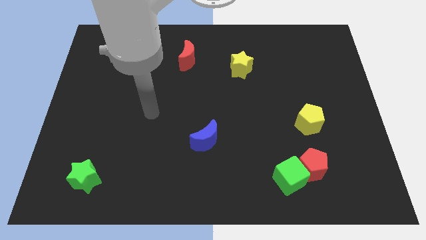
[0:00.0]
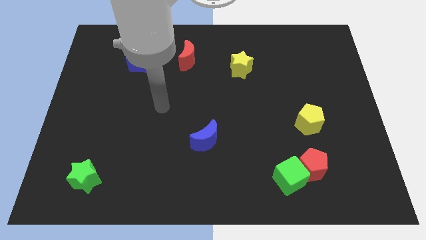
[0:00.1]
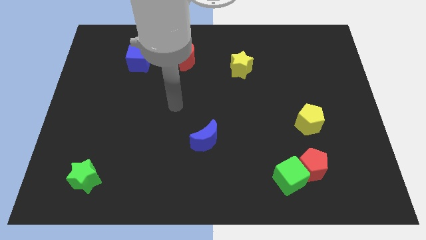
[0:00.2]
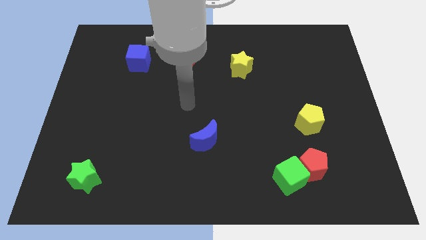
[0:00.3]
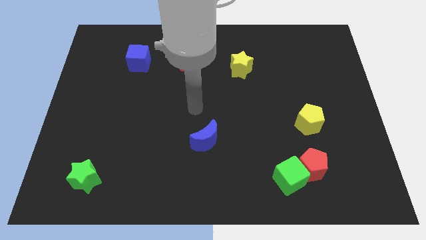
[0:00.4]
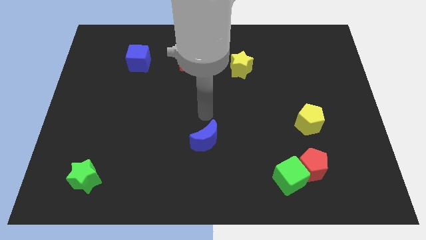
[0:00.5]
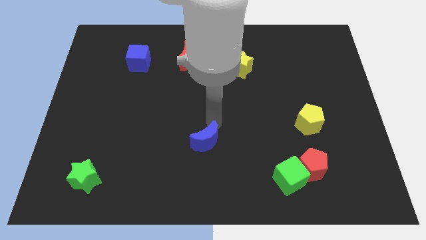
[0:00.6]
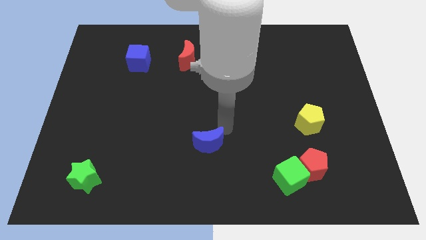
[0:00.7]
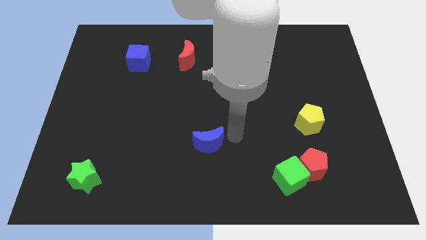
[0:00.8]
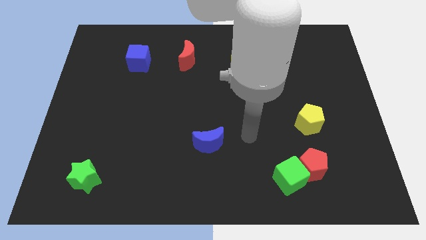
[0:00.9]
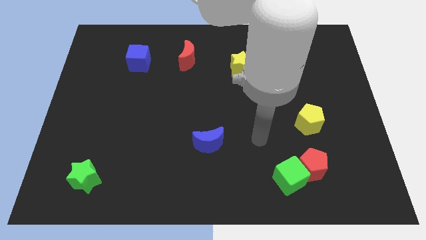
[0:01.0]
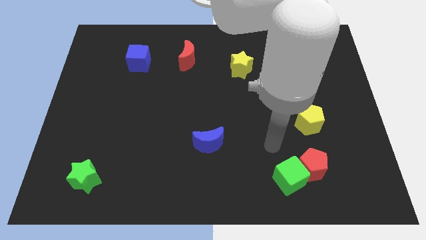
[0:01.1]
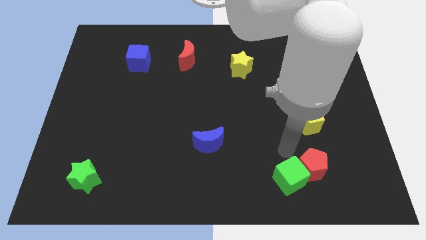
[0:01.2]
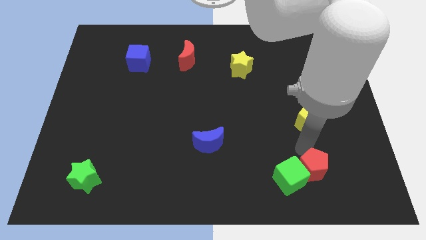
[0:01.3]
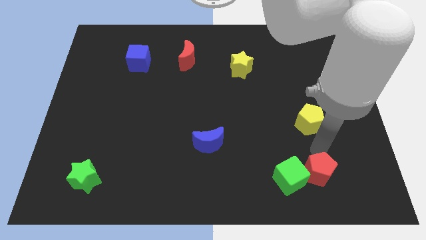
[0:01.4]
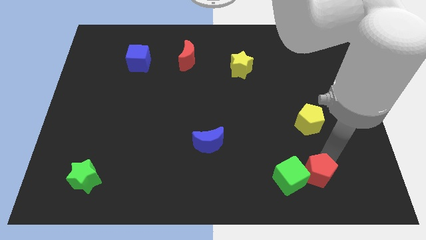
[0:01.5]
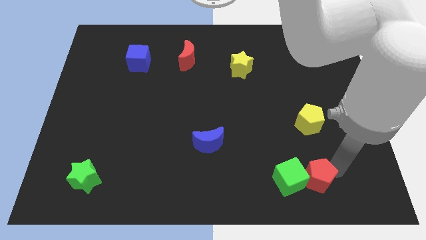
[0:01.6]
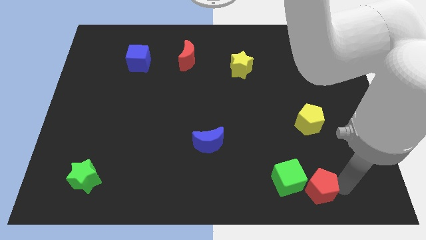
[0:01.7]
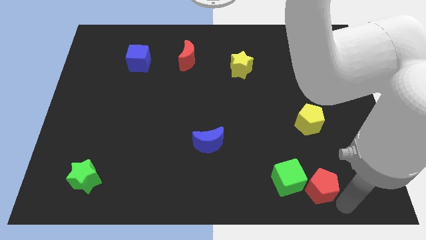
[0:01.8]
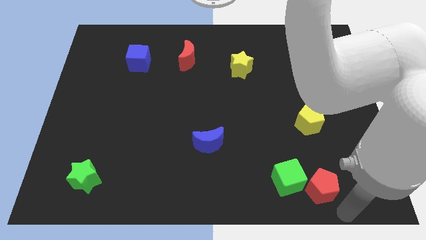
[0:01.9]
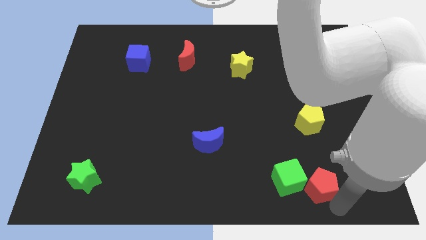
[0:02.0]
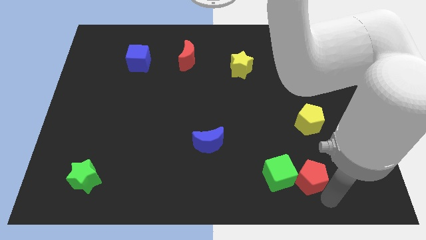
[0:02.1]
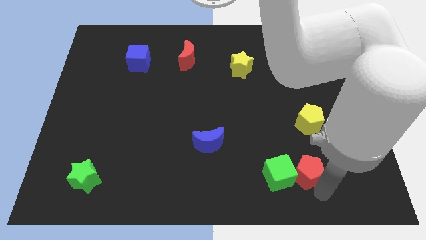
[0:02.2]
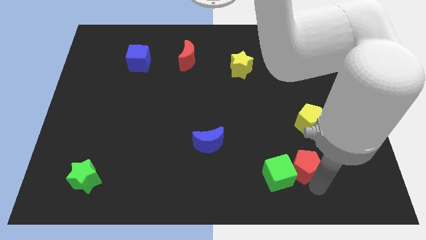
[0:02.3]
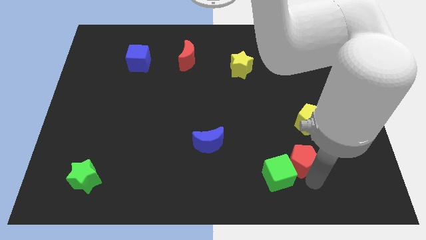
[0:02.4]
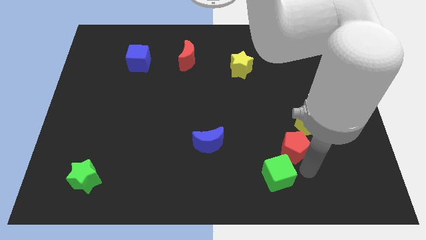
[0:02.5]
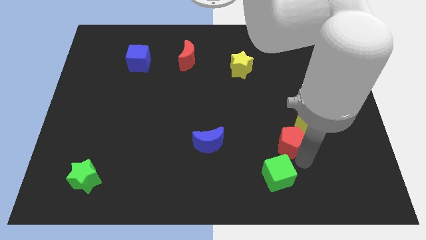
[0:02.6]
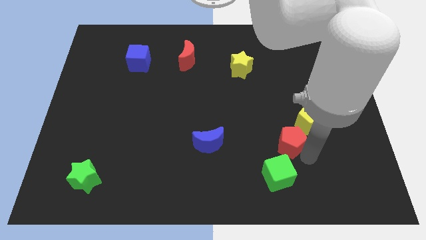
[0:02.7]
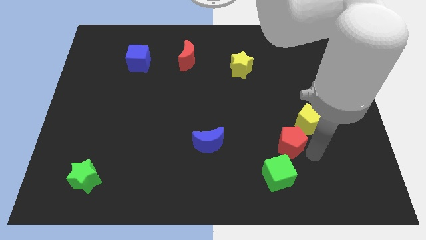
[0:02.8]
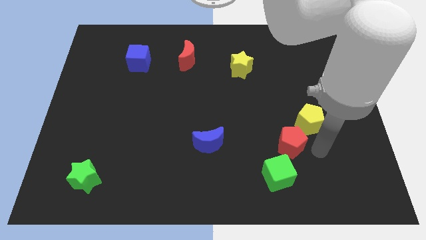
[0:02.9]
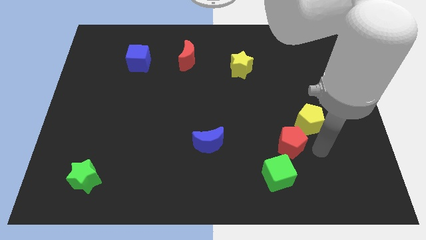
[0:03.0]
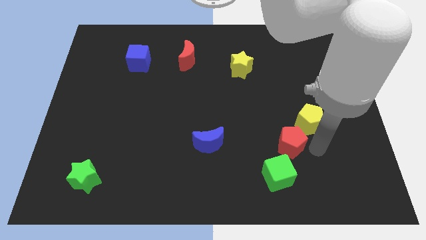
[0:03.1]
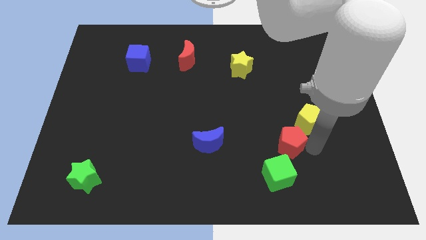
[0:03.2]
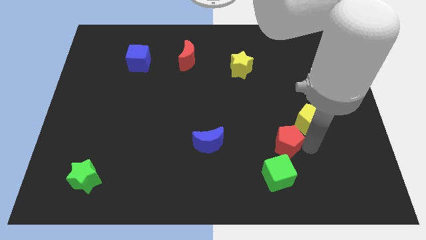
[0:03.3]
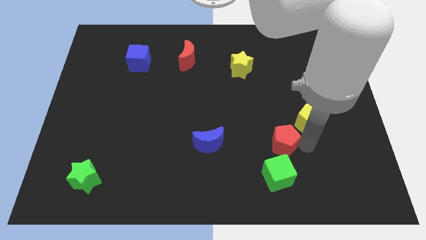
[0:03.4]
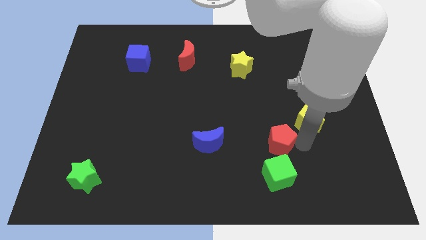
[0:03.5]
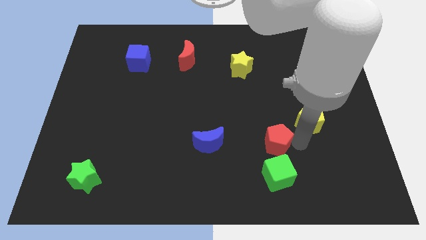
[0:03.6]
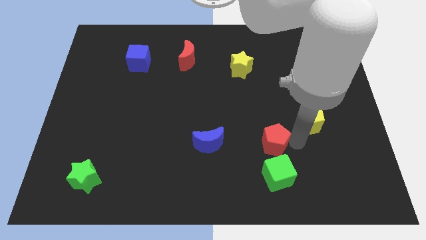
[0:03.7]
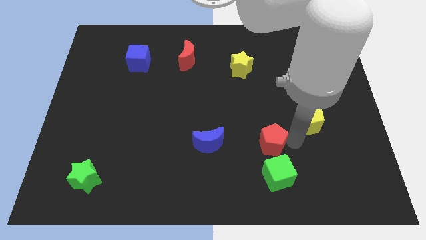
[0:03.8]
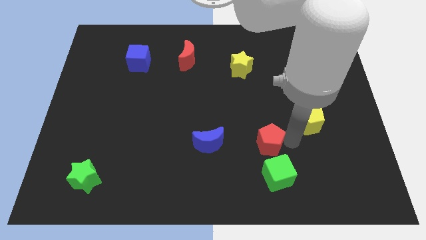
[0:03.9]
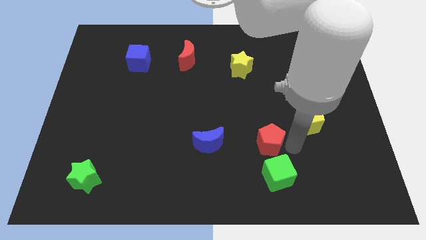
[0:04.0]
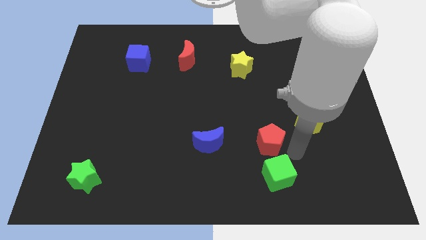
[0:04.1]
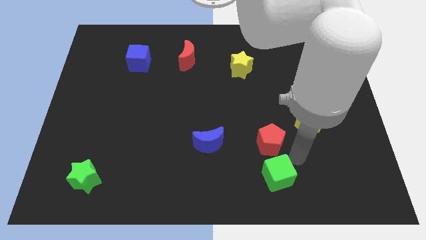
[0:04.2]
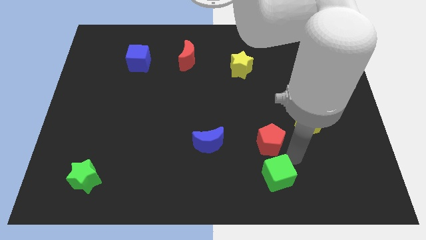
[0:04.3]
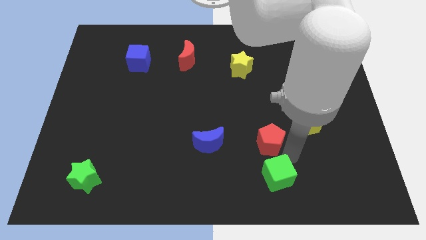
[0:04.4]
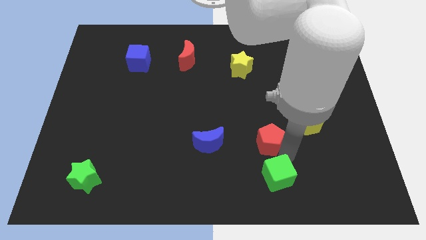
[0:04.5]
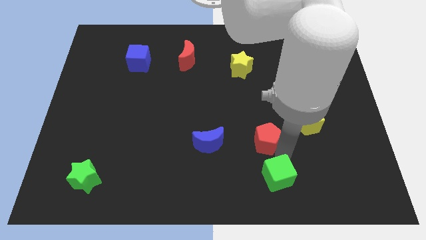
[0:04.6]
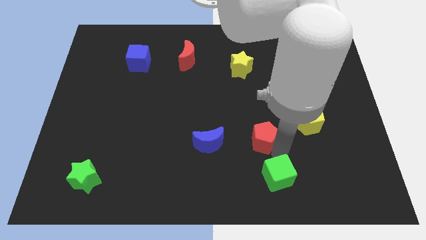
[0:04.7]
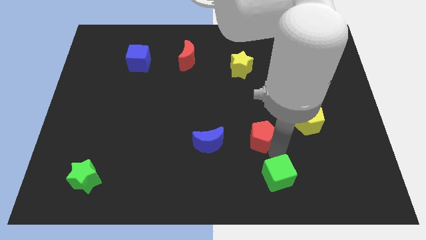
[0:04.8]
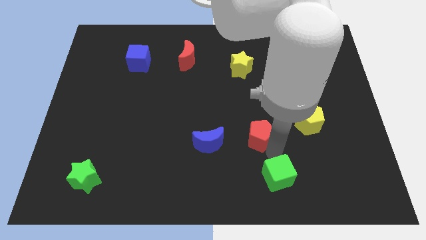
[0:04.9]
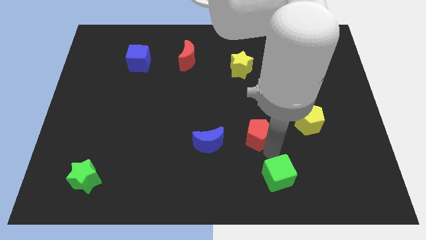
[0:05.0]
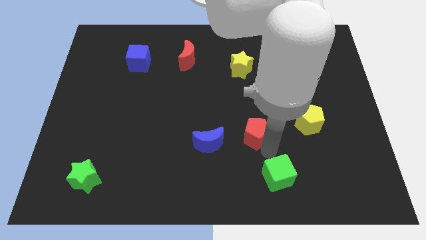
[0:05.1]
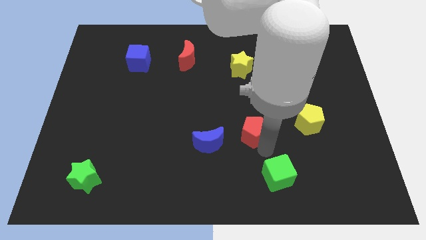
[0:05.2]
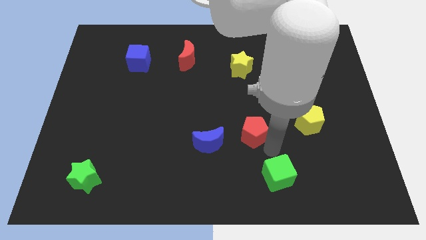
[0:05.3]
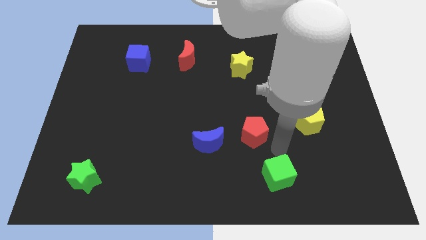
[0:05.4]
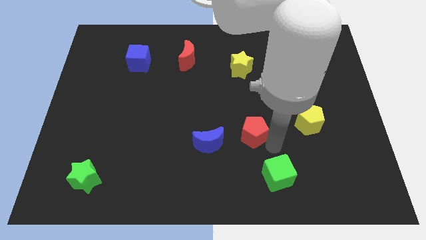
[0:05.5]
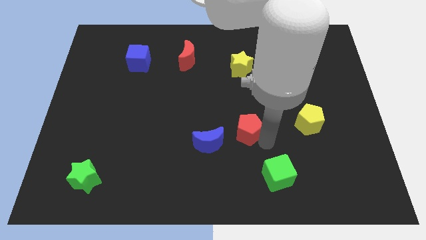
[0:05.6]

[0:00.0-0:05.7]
slide the red pentagon to the top right of the blue moon

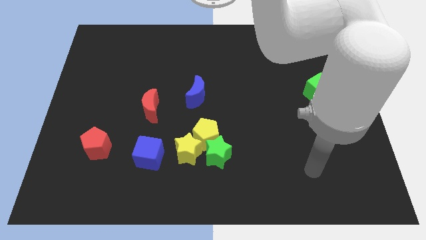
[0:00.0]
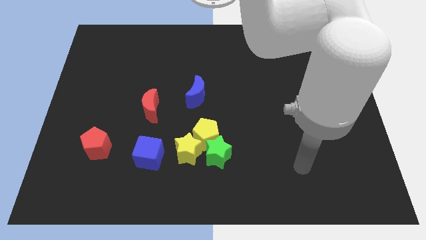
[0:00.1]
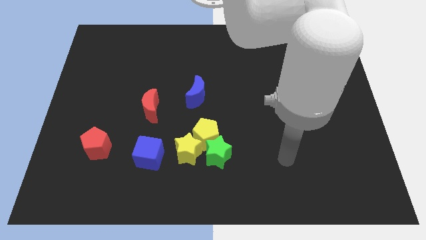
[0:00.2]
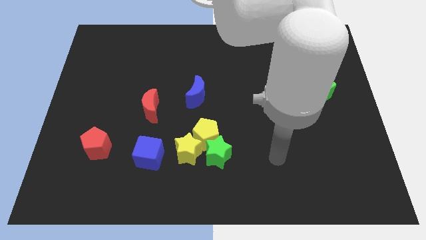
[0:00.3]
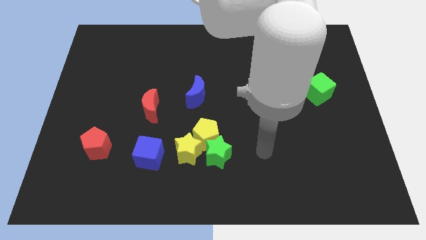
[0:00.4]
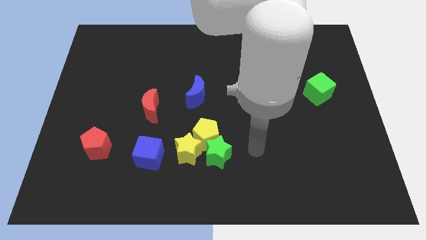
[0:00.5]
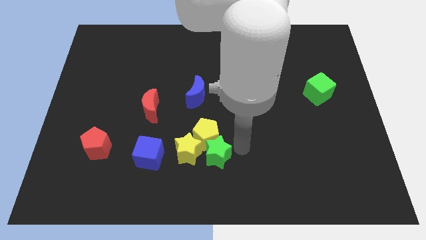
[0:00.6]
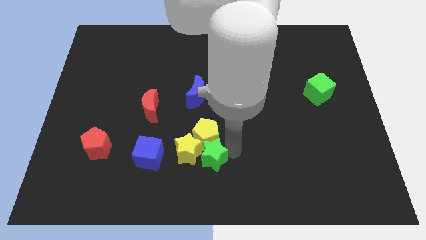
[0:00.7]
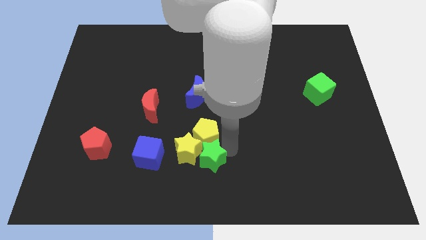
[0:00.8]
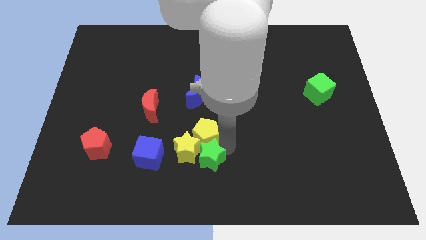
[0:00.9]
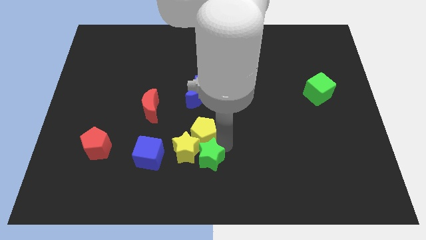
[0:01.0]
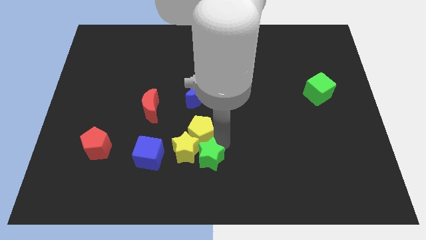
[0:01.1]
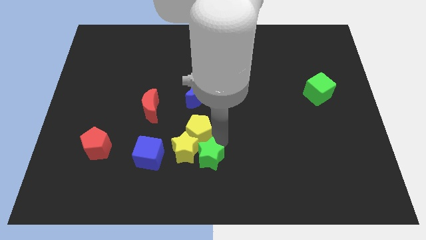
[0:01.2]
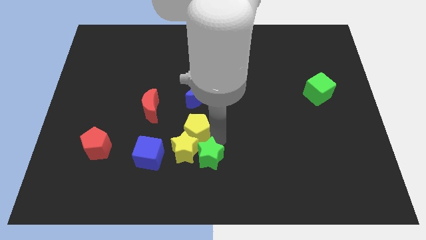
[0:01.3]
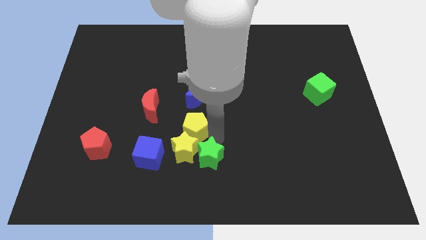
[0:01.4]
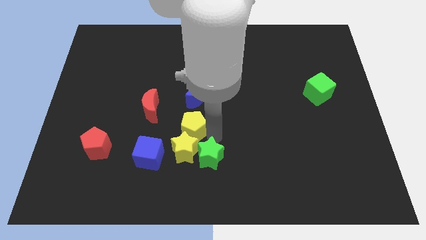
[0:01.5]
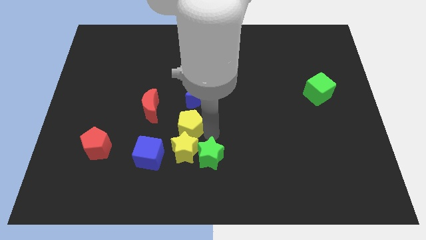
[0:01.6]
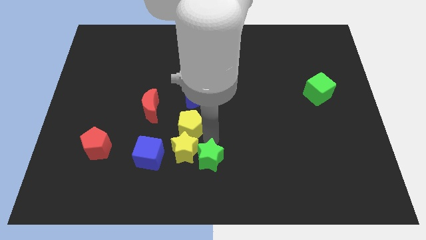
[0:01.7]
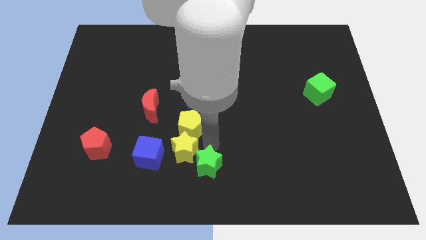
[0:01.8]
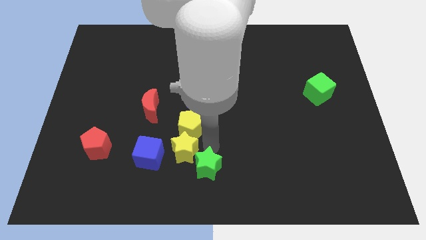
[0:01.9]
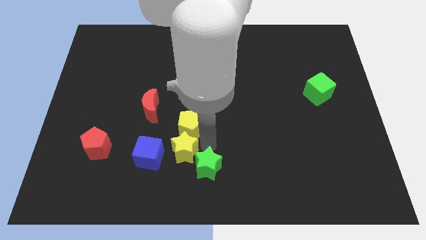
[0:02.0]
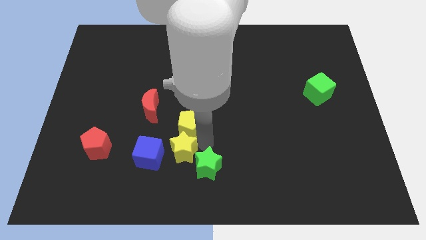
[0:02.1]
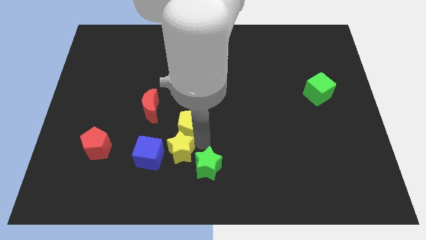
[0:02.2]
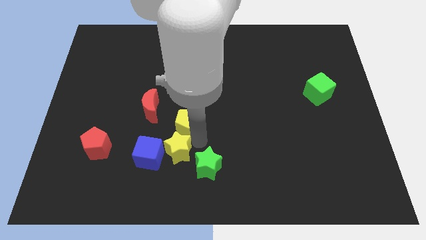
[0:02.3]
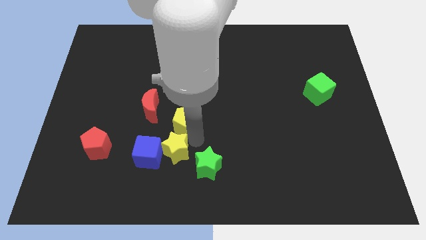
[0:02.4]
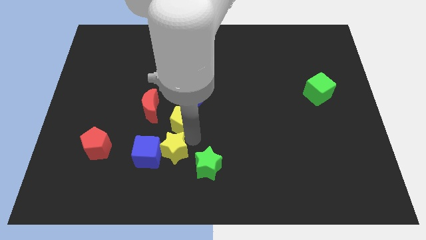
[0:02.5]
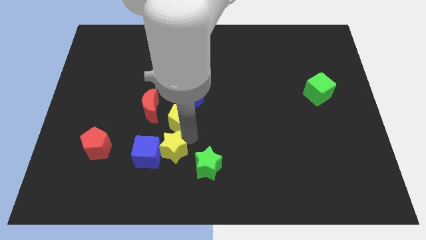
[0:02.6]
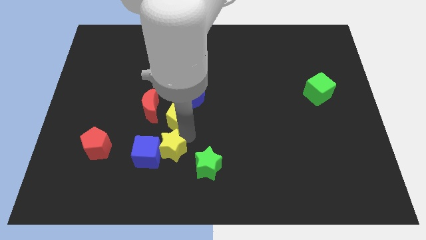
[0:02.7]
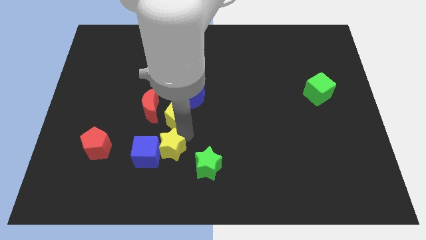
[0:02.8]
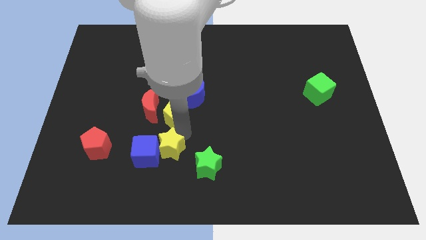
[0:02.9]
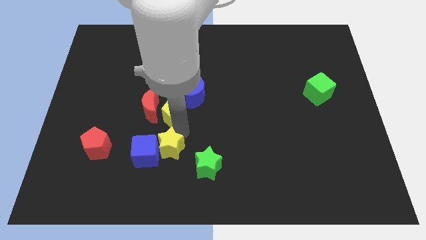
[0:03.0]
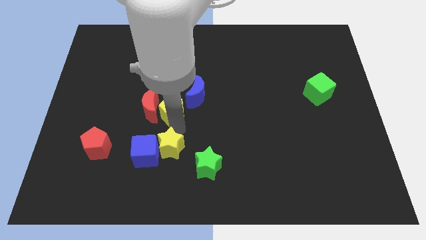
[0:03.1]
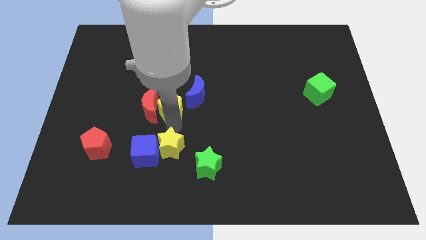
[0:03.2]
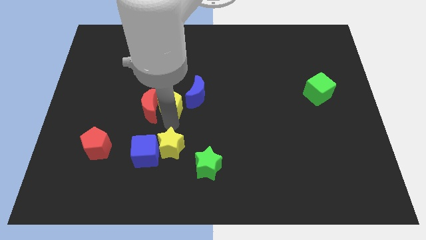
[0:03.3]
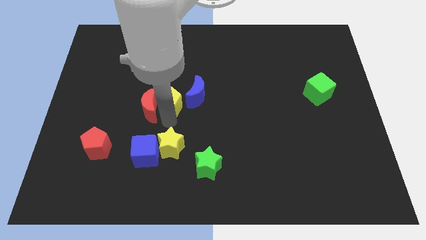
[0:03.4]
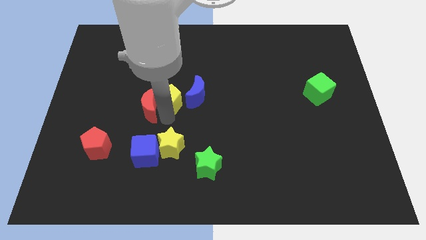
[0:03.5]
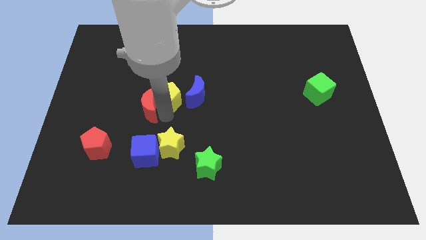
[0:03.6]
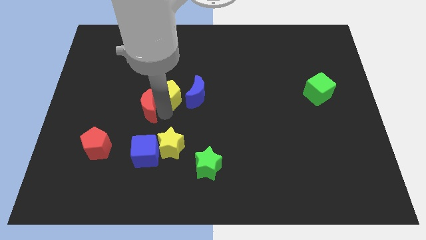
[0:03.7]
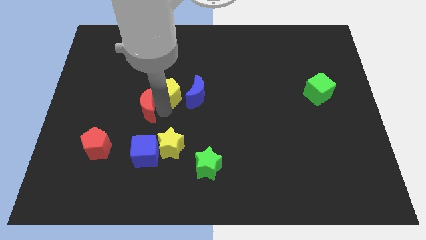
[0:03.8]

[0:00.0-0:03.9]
put the yellow pentagon to the top left side of the blue moon
